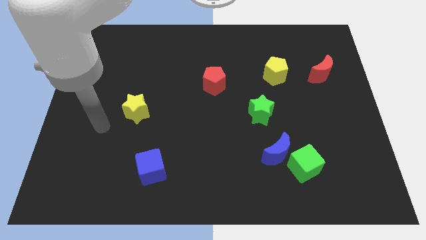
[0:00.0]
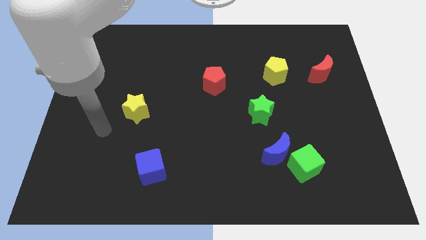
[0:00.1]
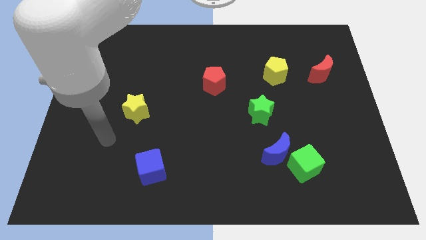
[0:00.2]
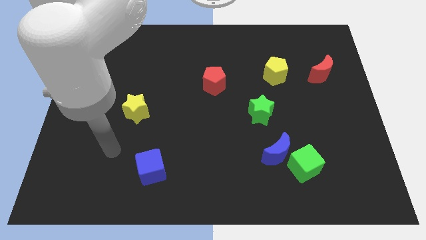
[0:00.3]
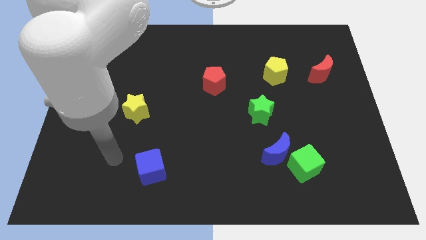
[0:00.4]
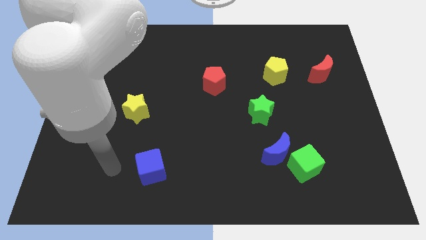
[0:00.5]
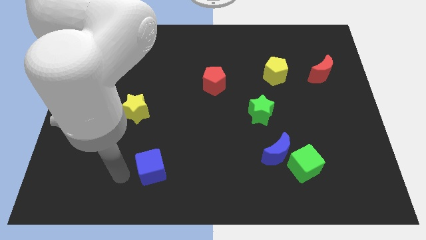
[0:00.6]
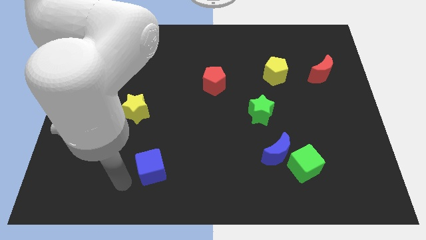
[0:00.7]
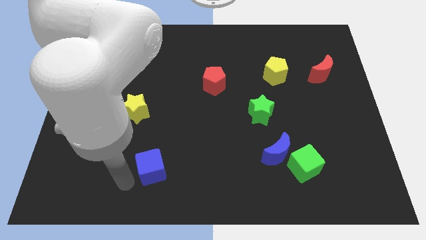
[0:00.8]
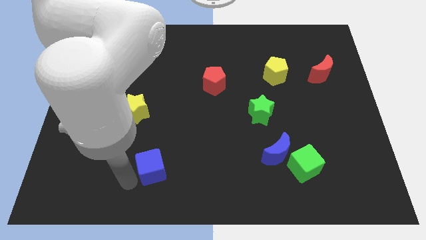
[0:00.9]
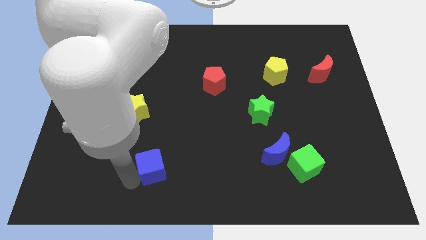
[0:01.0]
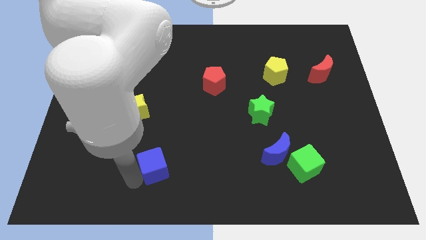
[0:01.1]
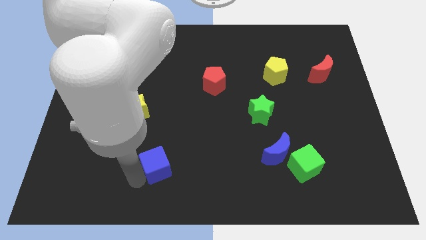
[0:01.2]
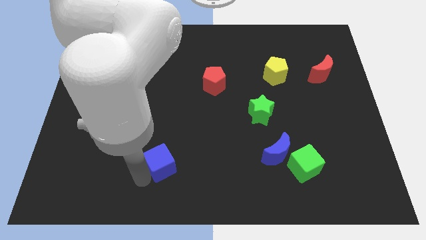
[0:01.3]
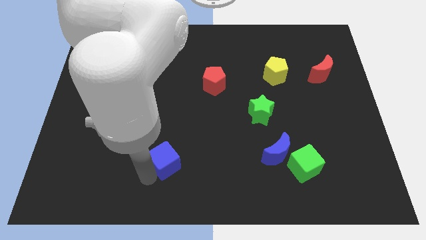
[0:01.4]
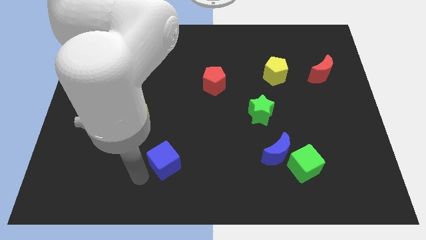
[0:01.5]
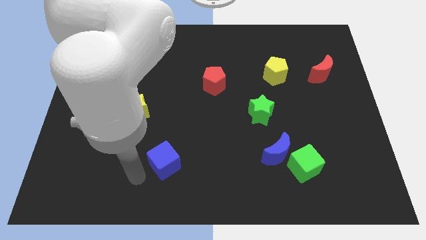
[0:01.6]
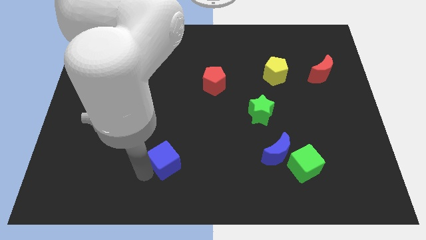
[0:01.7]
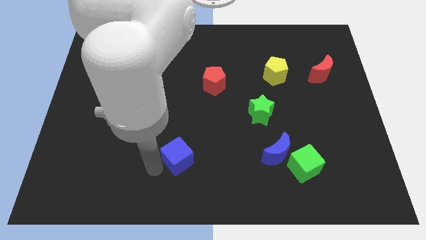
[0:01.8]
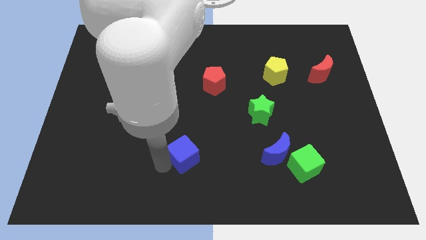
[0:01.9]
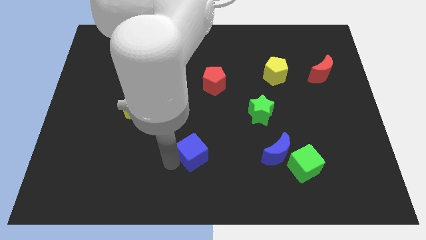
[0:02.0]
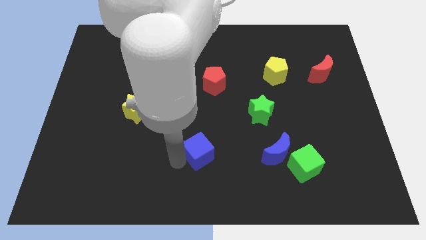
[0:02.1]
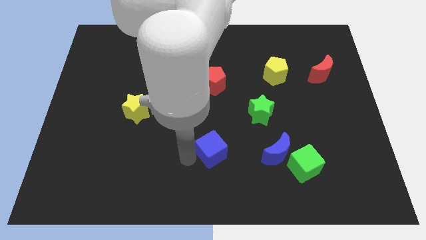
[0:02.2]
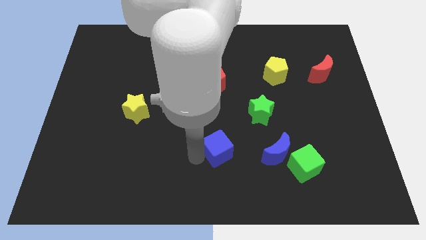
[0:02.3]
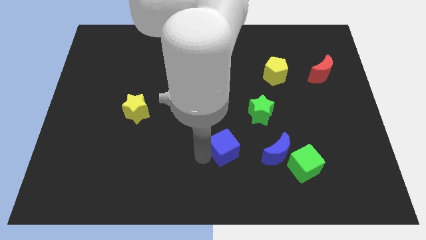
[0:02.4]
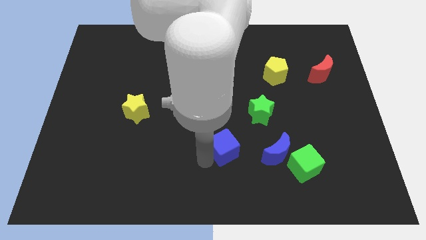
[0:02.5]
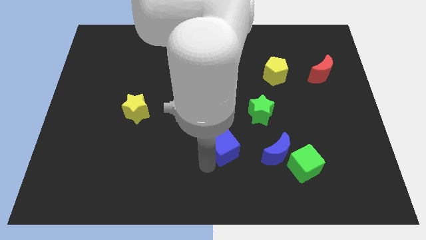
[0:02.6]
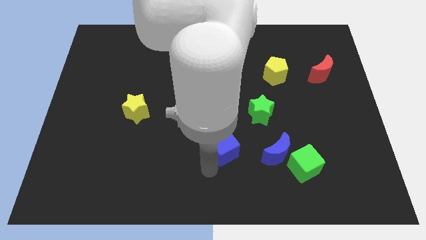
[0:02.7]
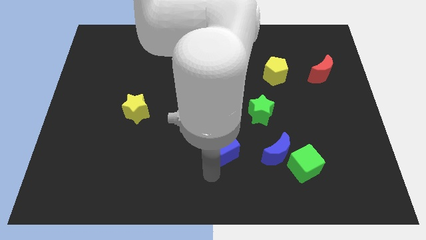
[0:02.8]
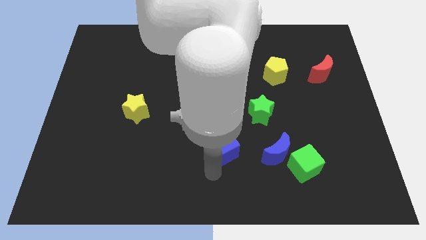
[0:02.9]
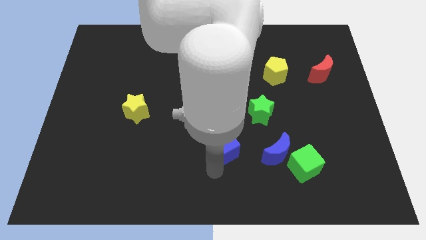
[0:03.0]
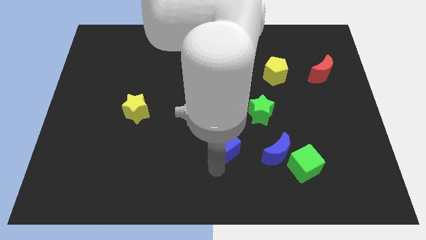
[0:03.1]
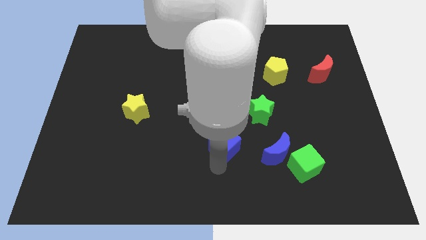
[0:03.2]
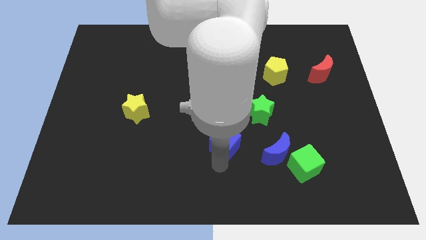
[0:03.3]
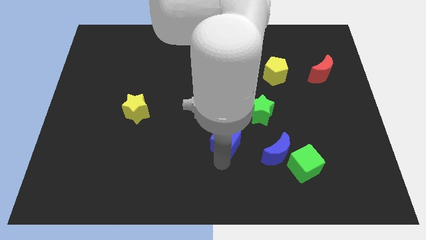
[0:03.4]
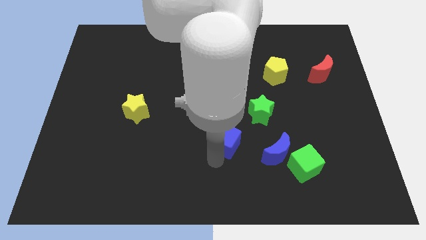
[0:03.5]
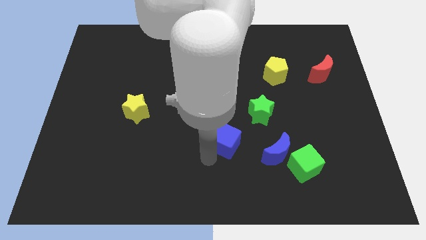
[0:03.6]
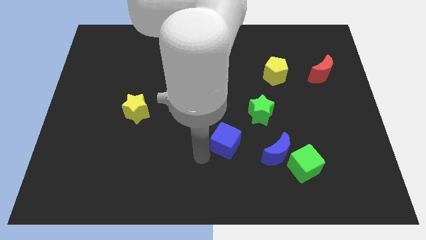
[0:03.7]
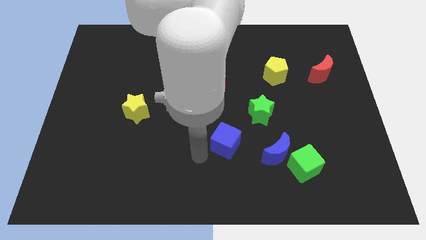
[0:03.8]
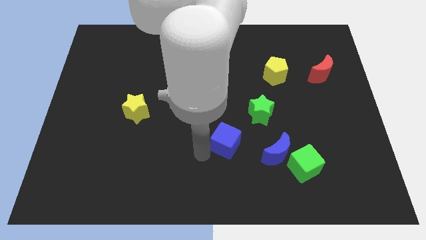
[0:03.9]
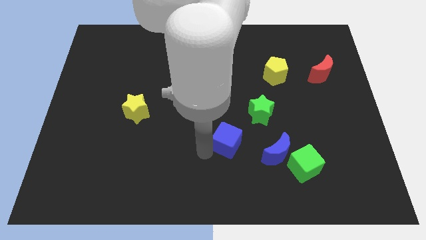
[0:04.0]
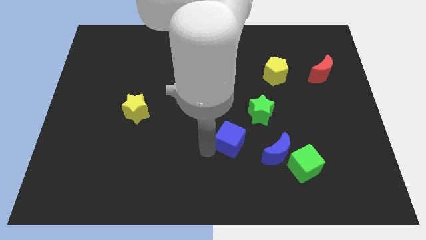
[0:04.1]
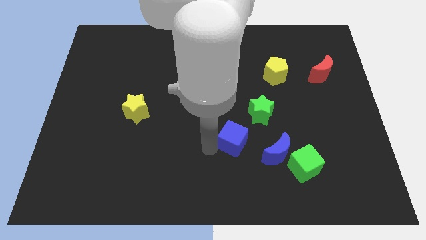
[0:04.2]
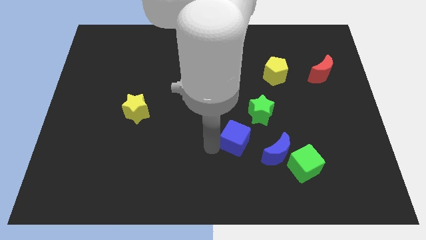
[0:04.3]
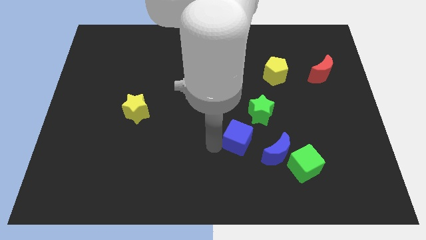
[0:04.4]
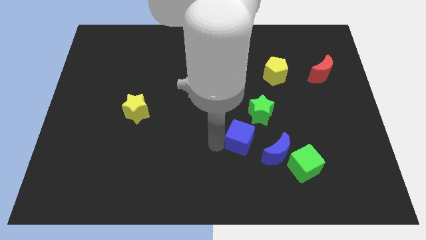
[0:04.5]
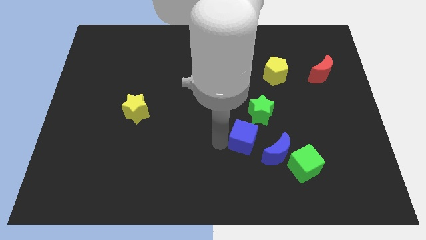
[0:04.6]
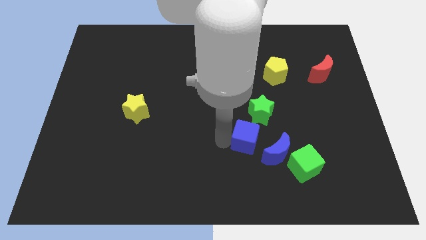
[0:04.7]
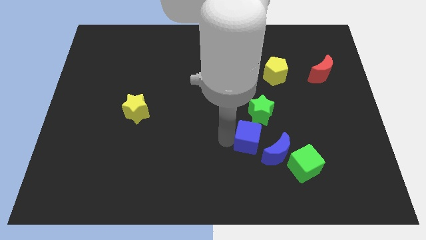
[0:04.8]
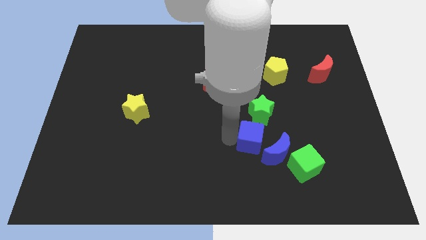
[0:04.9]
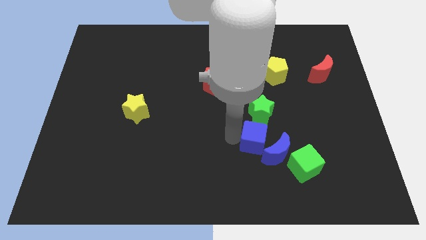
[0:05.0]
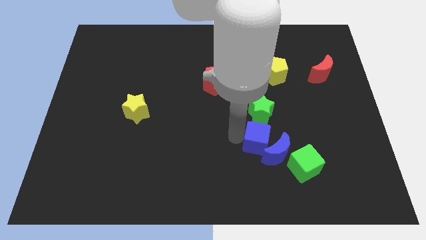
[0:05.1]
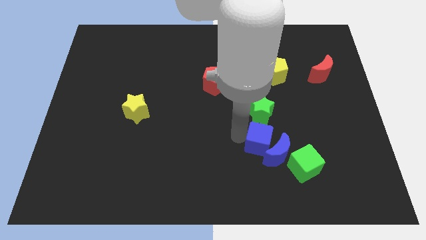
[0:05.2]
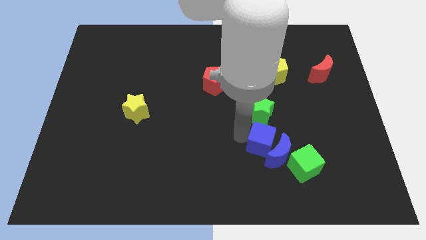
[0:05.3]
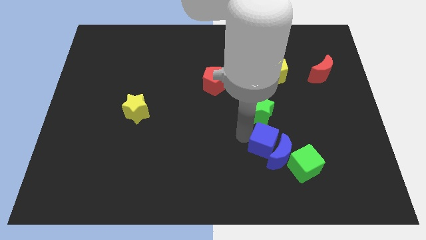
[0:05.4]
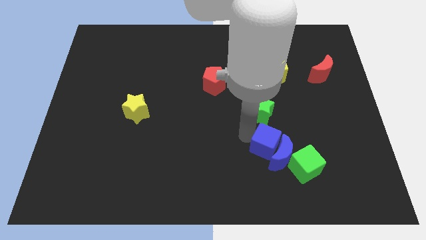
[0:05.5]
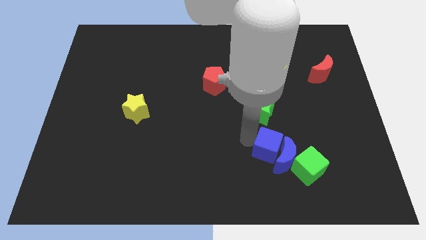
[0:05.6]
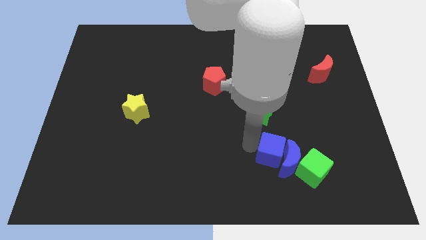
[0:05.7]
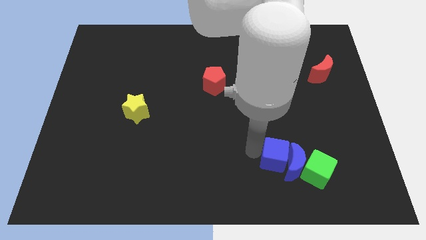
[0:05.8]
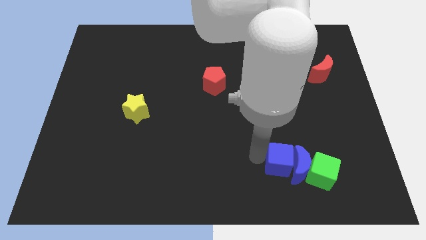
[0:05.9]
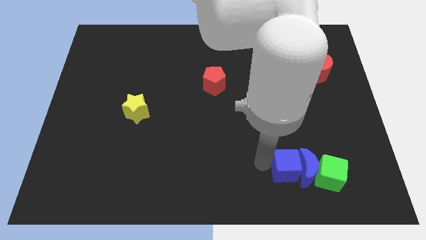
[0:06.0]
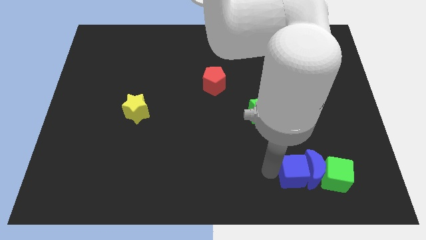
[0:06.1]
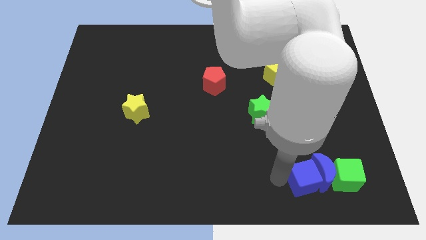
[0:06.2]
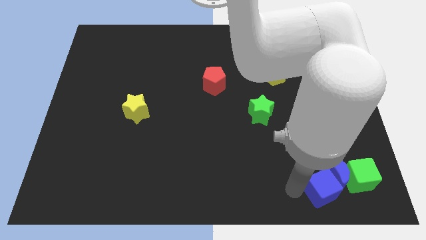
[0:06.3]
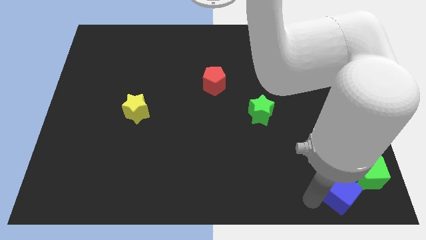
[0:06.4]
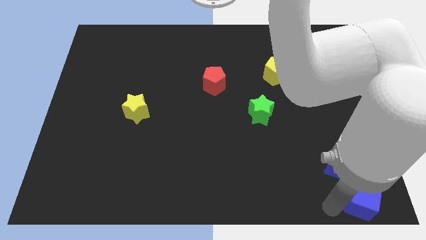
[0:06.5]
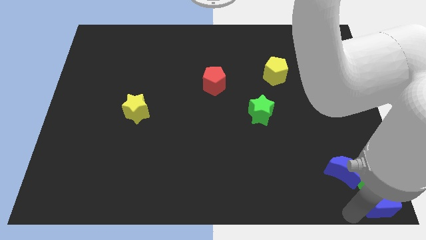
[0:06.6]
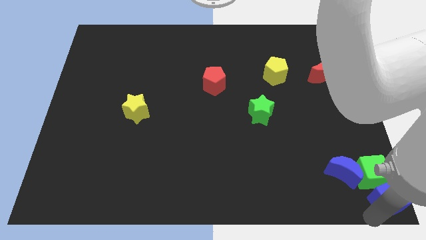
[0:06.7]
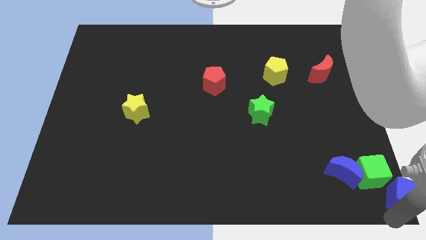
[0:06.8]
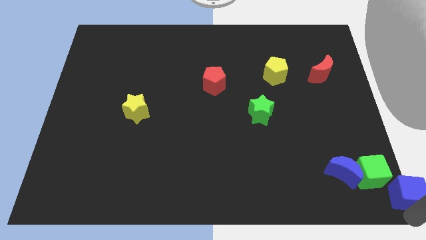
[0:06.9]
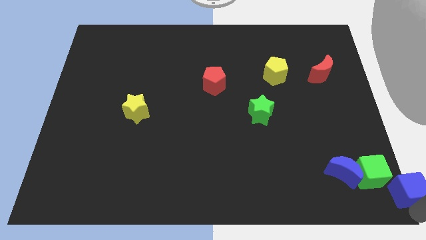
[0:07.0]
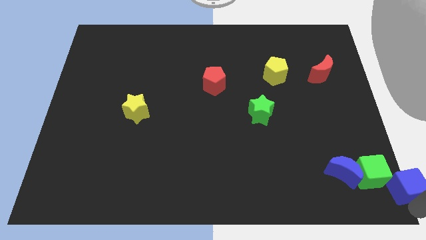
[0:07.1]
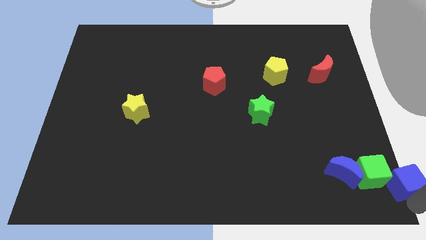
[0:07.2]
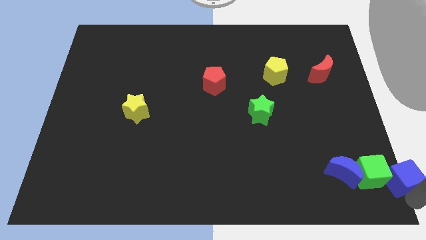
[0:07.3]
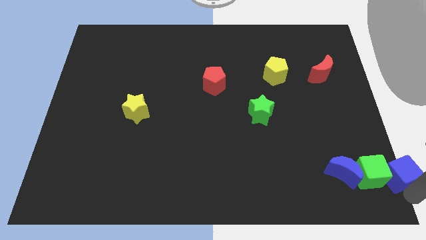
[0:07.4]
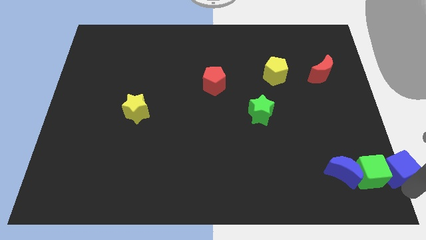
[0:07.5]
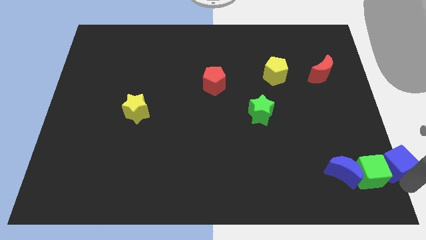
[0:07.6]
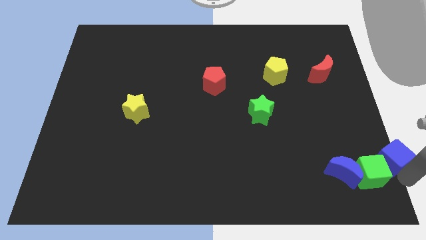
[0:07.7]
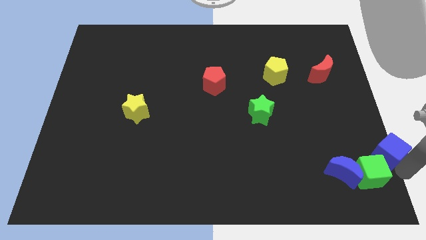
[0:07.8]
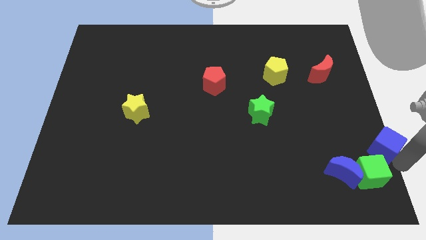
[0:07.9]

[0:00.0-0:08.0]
slide the blue cube to the right side of the board
